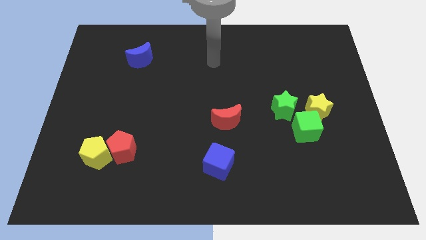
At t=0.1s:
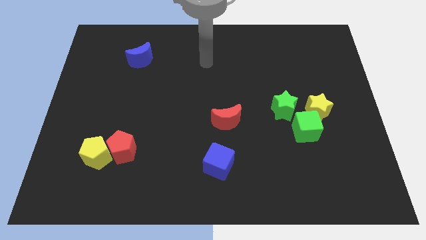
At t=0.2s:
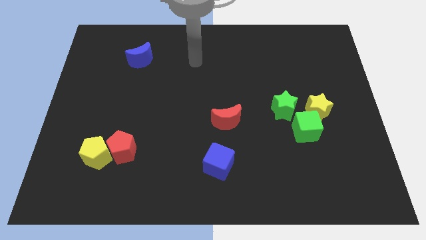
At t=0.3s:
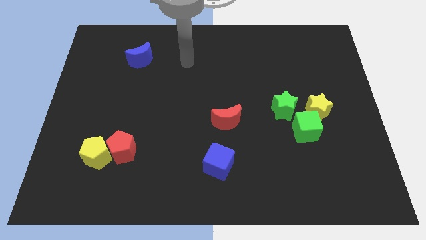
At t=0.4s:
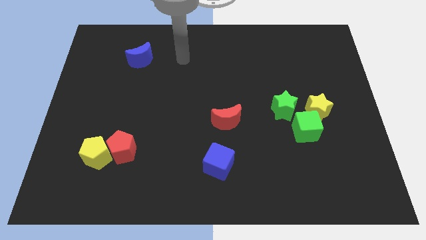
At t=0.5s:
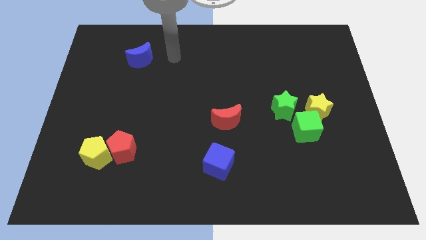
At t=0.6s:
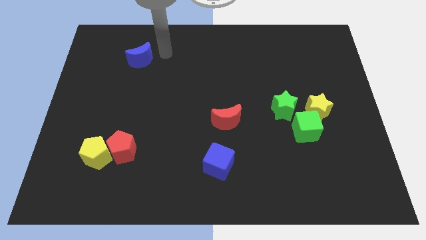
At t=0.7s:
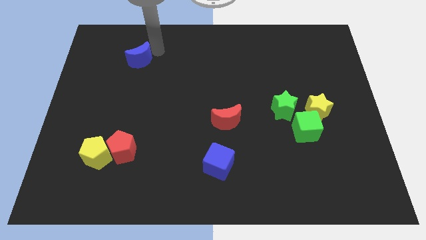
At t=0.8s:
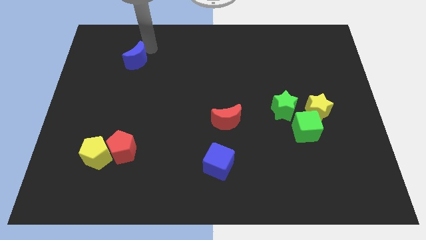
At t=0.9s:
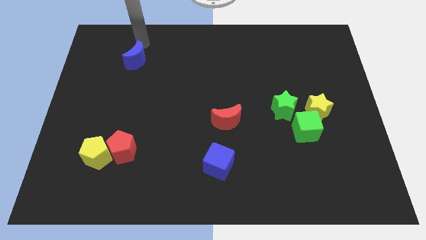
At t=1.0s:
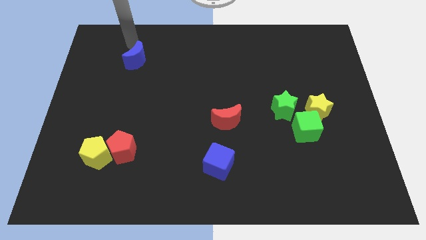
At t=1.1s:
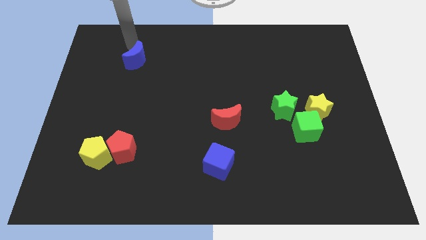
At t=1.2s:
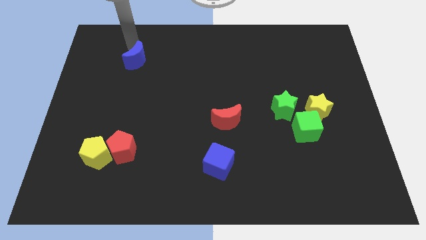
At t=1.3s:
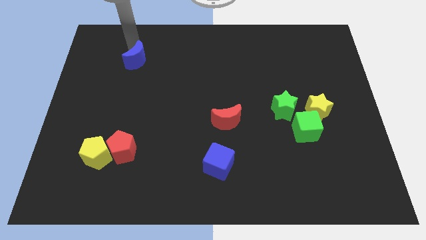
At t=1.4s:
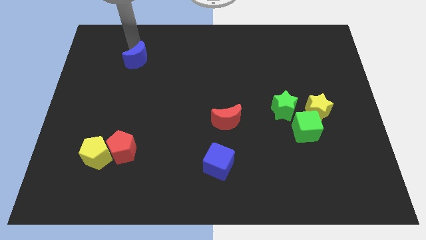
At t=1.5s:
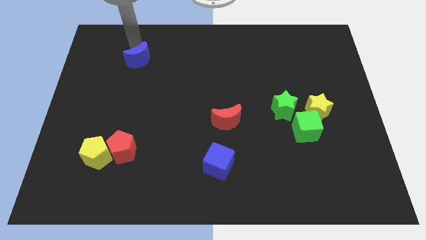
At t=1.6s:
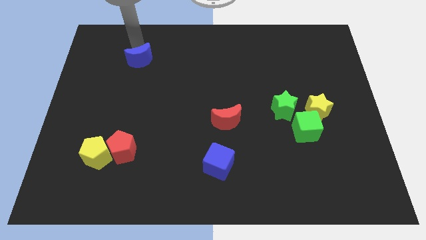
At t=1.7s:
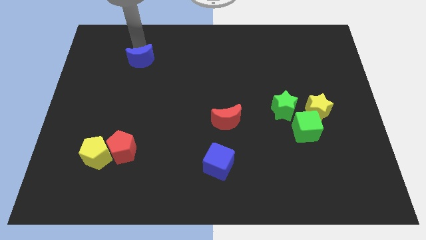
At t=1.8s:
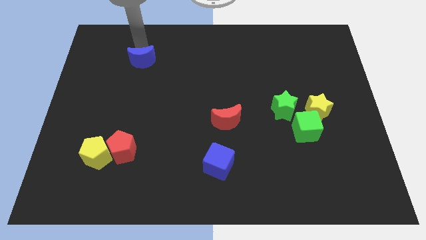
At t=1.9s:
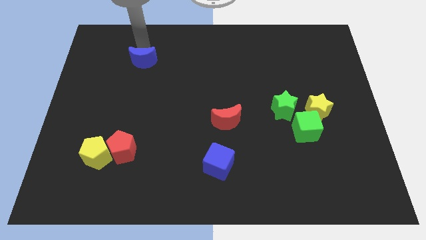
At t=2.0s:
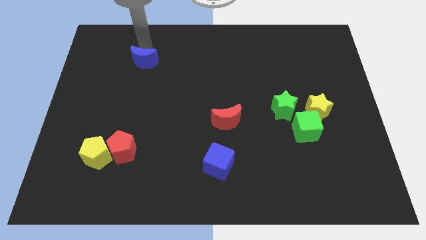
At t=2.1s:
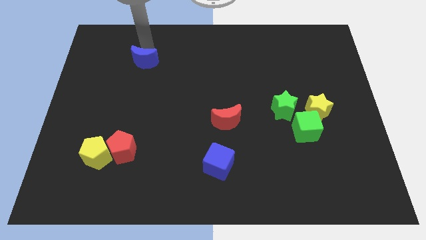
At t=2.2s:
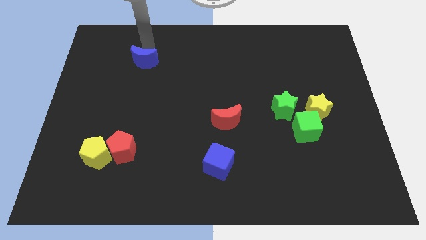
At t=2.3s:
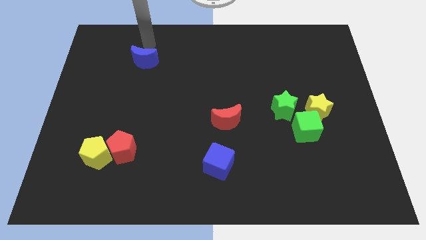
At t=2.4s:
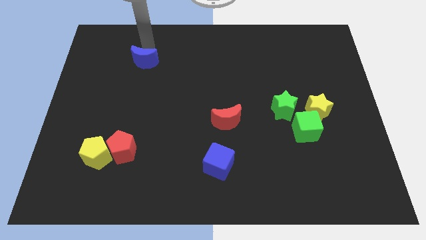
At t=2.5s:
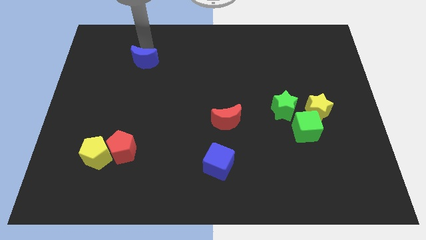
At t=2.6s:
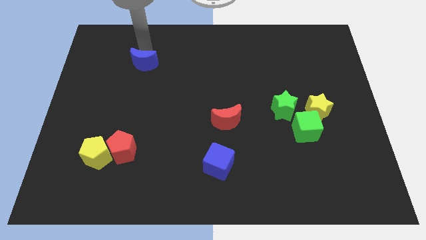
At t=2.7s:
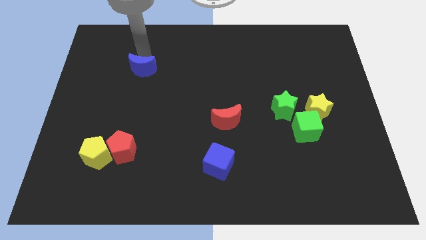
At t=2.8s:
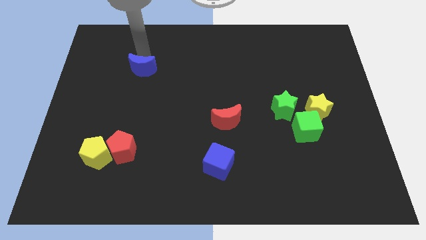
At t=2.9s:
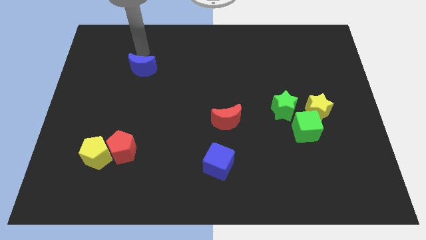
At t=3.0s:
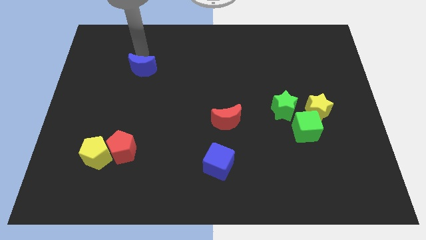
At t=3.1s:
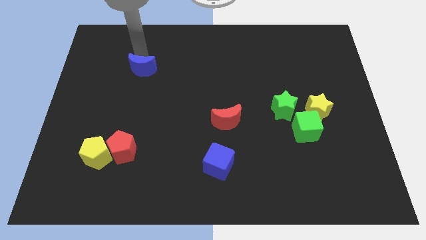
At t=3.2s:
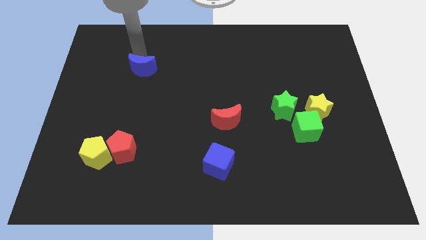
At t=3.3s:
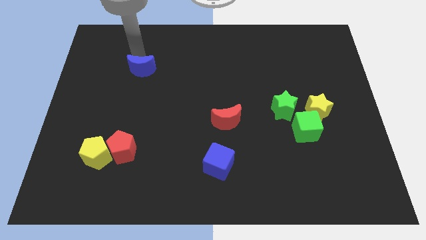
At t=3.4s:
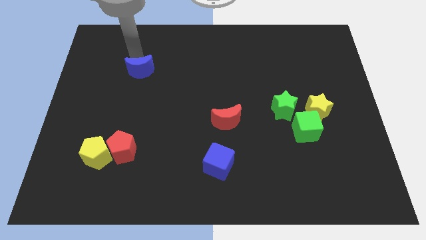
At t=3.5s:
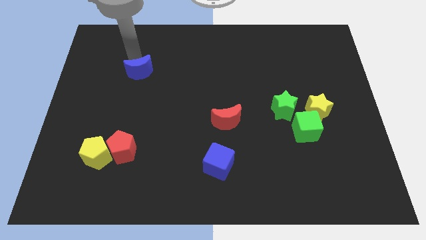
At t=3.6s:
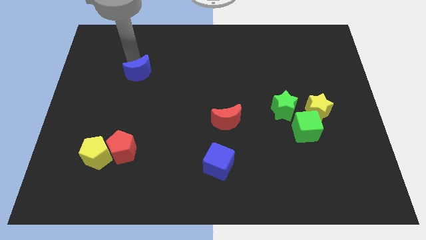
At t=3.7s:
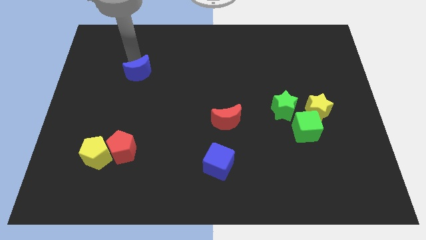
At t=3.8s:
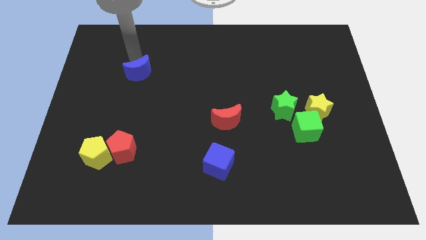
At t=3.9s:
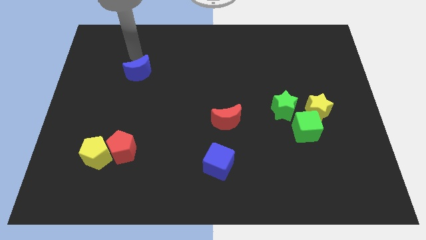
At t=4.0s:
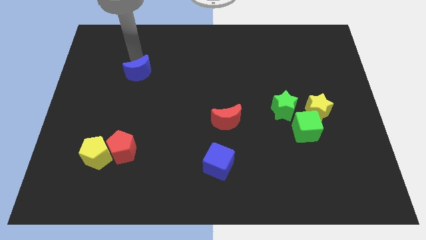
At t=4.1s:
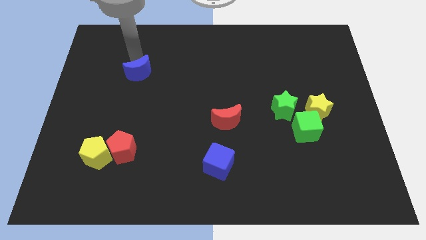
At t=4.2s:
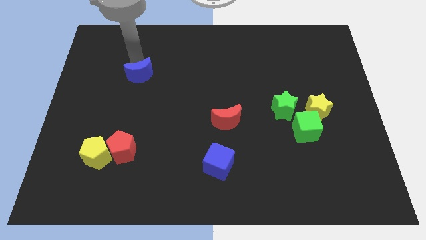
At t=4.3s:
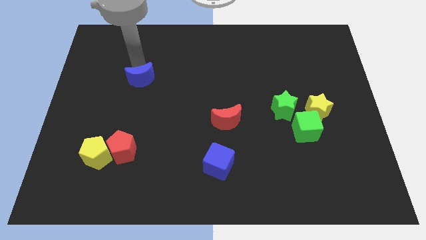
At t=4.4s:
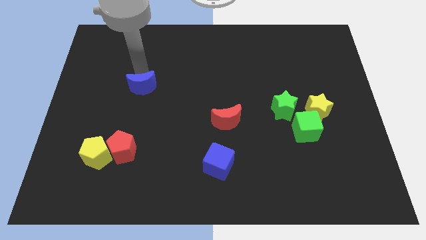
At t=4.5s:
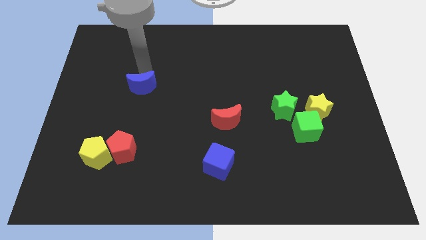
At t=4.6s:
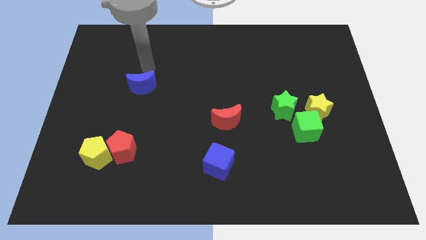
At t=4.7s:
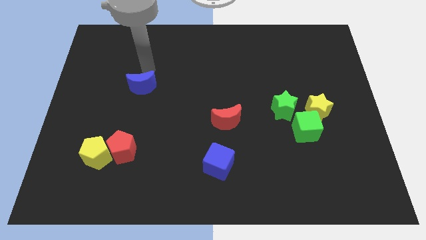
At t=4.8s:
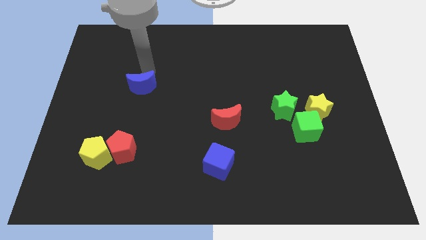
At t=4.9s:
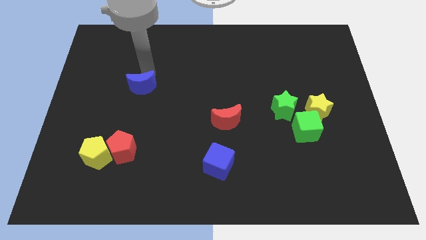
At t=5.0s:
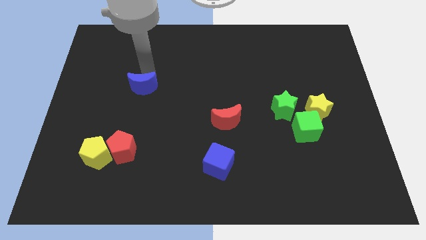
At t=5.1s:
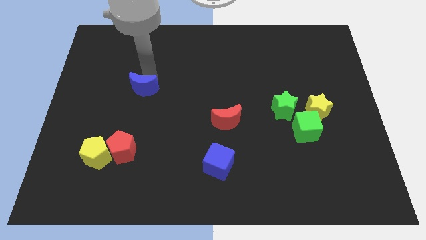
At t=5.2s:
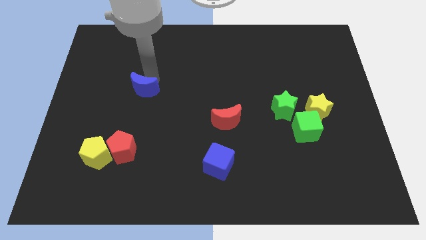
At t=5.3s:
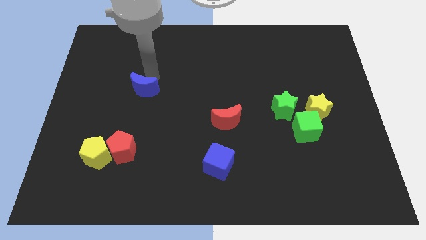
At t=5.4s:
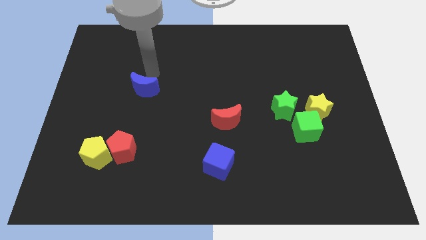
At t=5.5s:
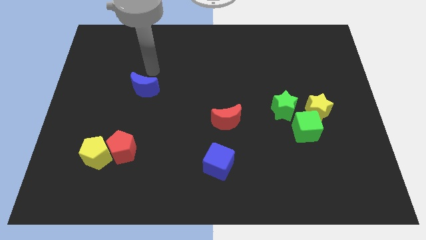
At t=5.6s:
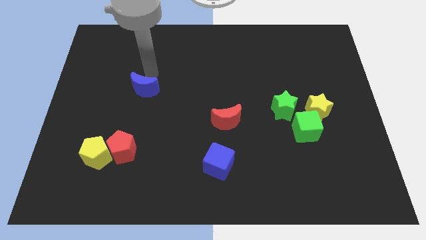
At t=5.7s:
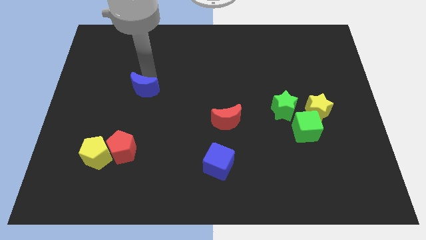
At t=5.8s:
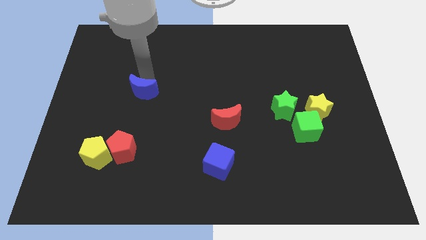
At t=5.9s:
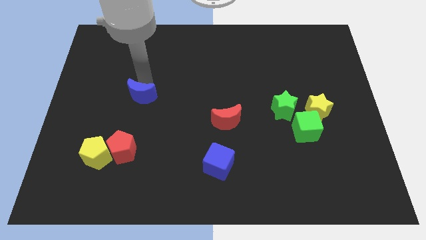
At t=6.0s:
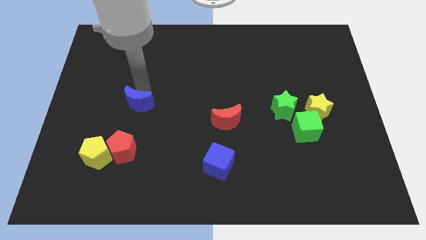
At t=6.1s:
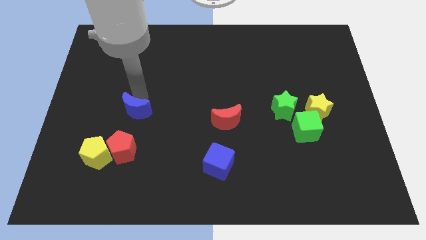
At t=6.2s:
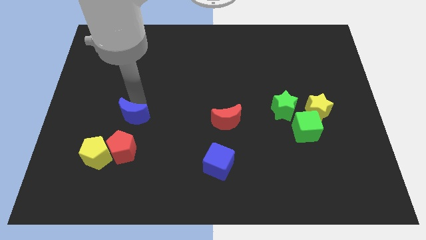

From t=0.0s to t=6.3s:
put the blue moon diagonally up and to the right of the yellow pentagon

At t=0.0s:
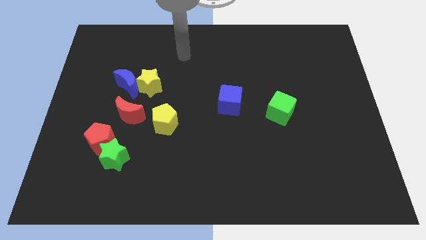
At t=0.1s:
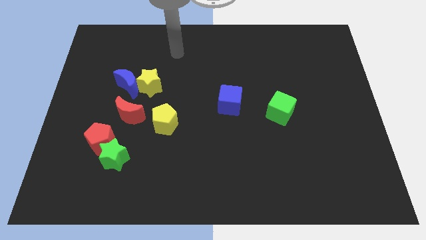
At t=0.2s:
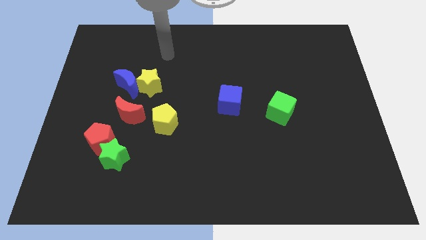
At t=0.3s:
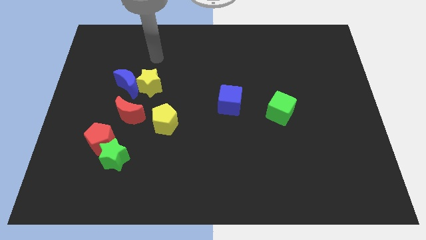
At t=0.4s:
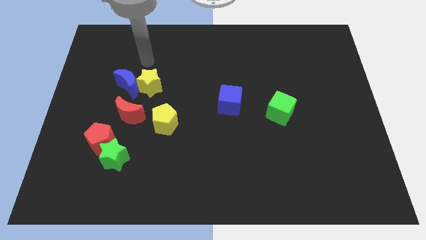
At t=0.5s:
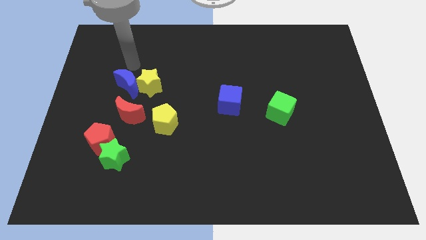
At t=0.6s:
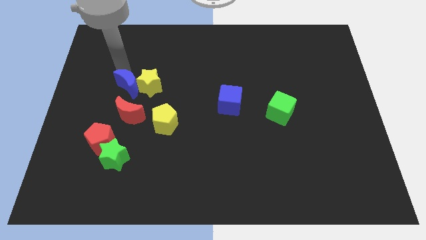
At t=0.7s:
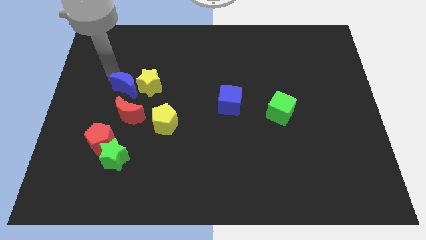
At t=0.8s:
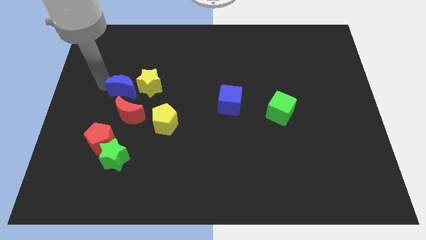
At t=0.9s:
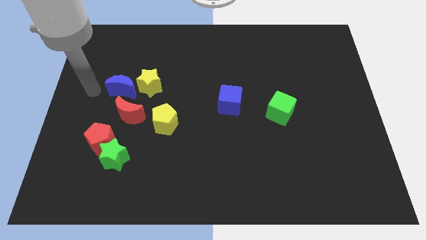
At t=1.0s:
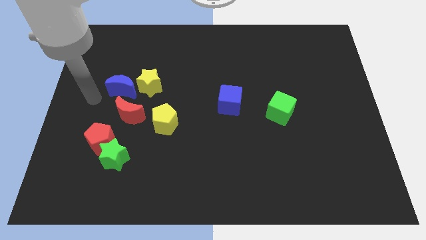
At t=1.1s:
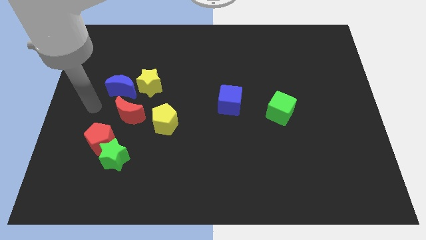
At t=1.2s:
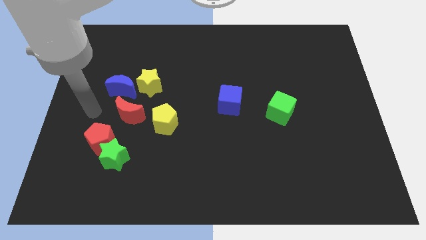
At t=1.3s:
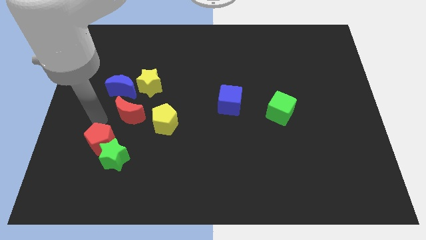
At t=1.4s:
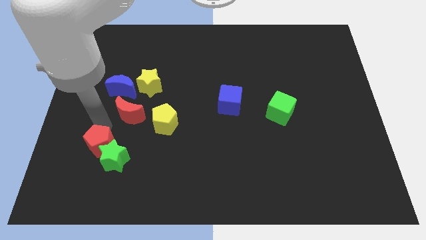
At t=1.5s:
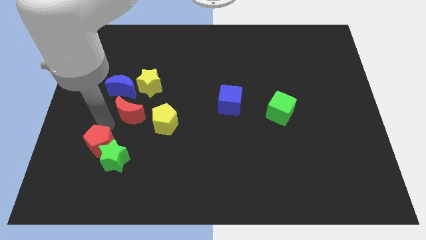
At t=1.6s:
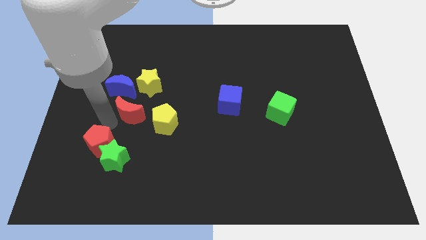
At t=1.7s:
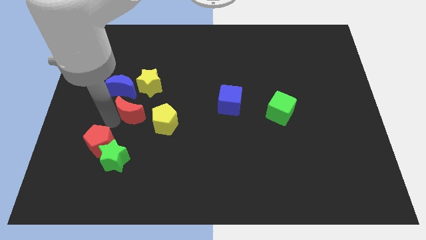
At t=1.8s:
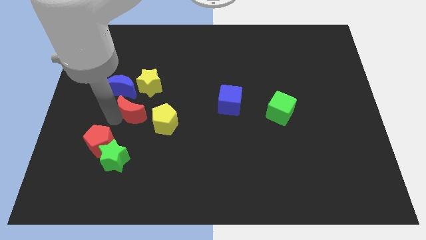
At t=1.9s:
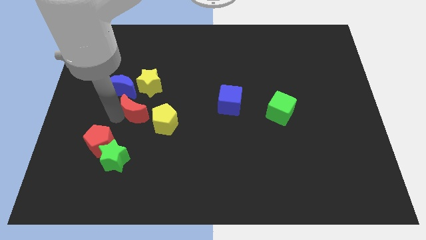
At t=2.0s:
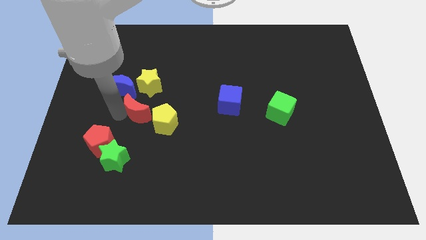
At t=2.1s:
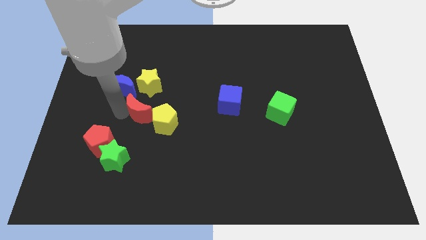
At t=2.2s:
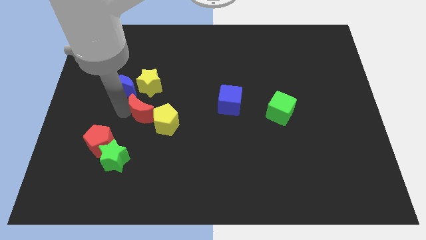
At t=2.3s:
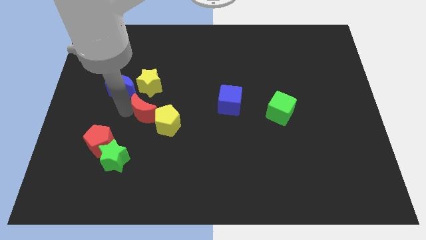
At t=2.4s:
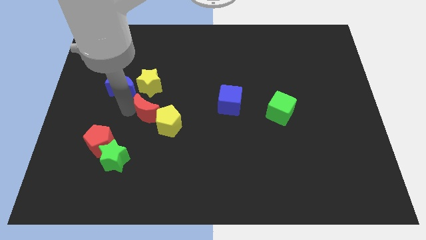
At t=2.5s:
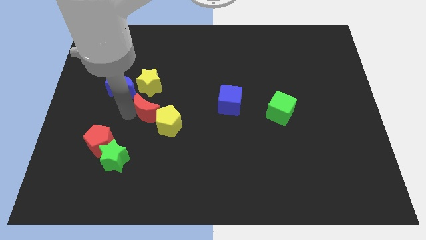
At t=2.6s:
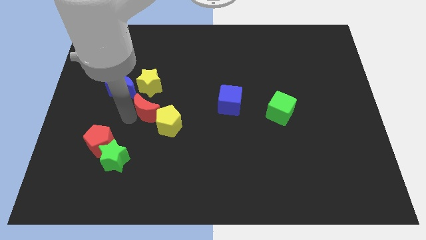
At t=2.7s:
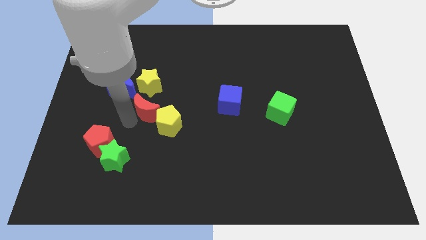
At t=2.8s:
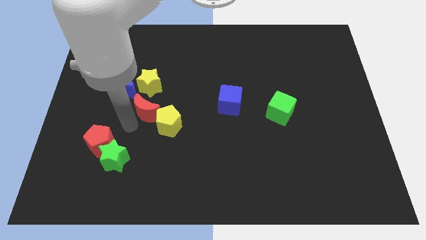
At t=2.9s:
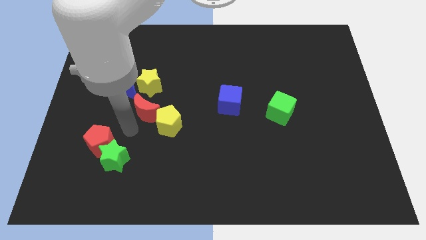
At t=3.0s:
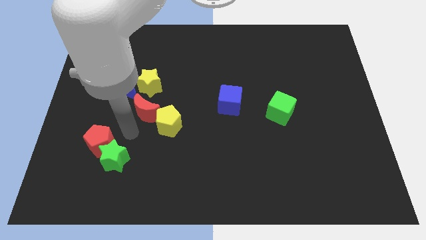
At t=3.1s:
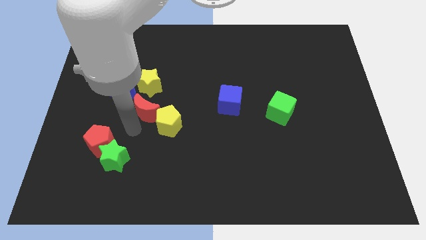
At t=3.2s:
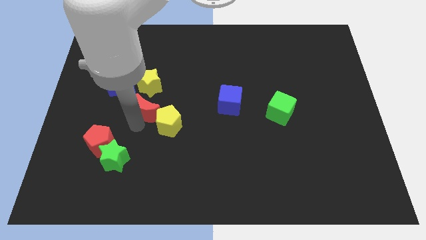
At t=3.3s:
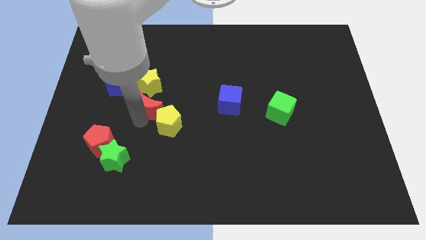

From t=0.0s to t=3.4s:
push the red moon above the yellow pentagon
